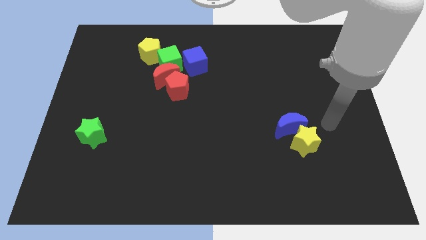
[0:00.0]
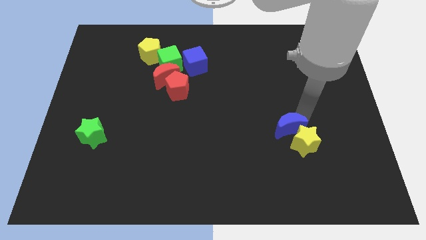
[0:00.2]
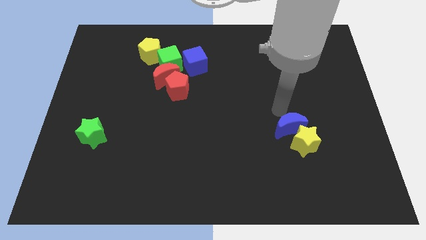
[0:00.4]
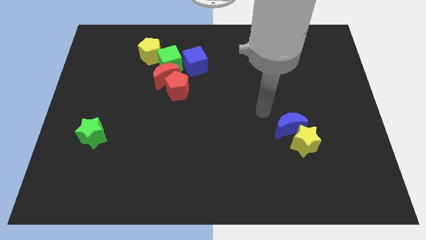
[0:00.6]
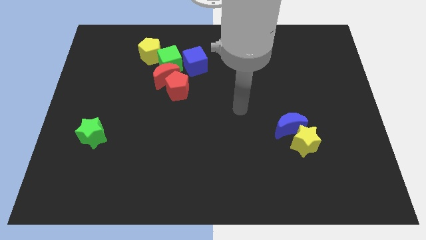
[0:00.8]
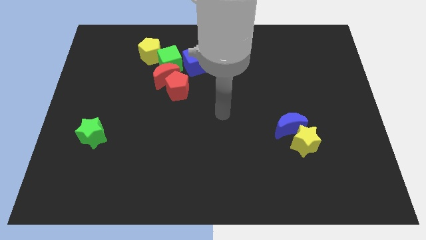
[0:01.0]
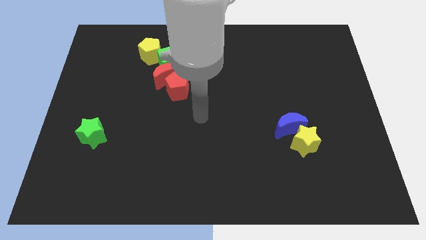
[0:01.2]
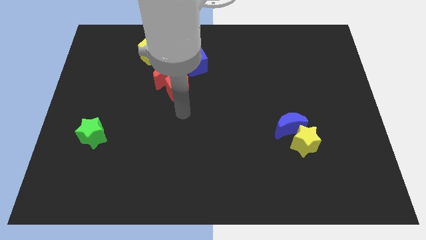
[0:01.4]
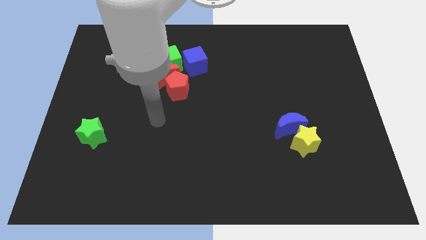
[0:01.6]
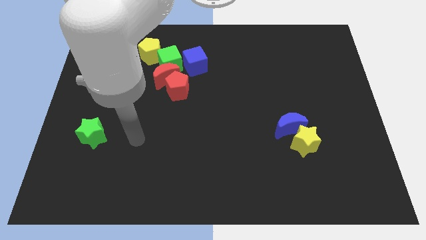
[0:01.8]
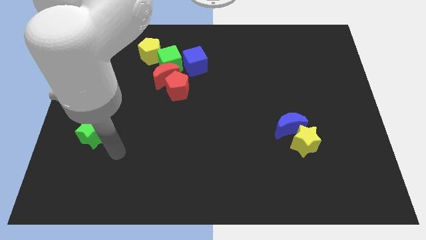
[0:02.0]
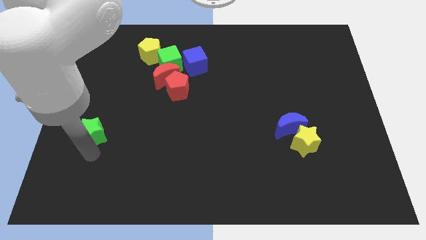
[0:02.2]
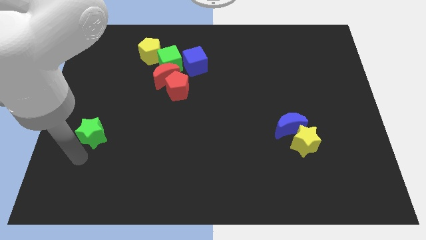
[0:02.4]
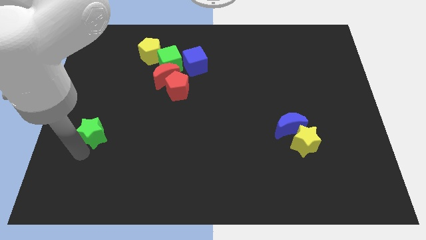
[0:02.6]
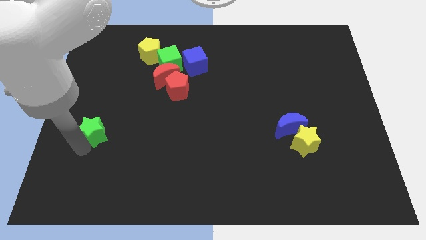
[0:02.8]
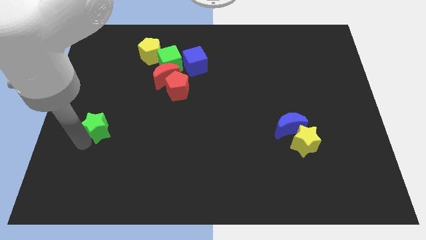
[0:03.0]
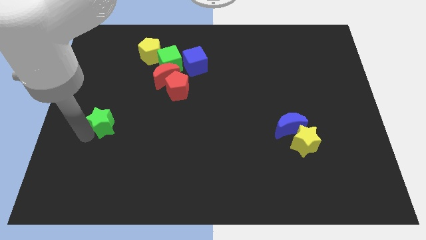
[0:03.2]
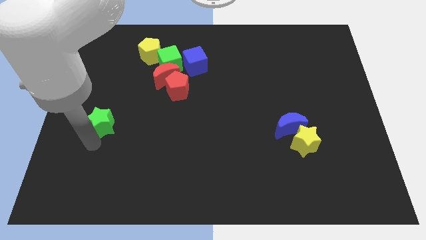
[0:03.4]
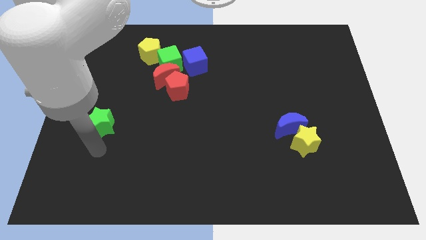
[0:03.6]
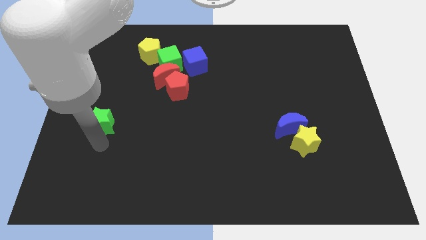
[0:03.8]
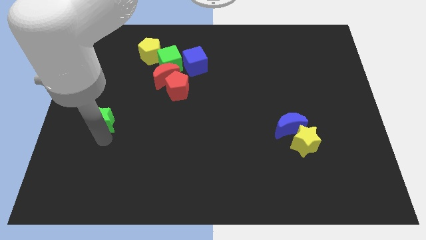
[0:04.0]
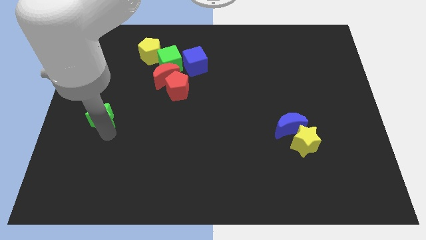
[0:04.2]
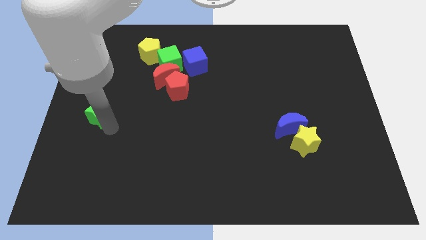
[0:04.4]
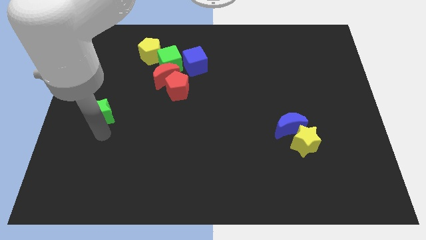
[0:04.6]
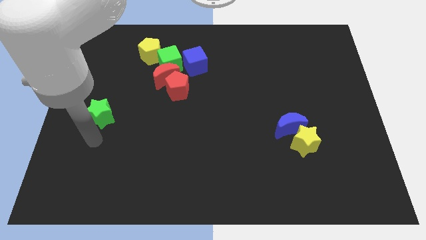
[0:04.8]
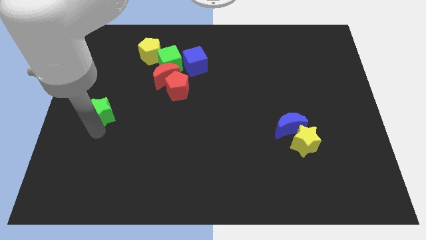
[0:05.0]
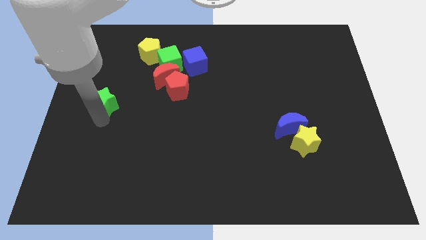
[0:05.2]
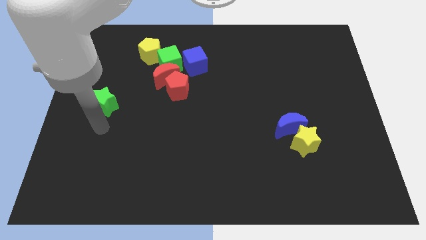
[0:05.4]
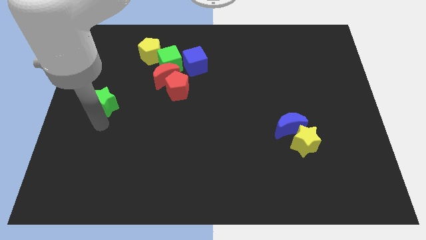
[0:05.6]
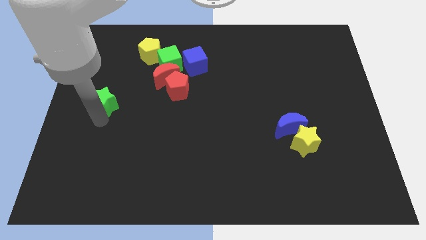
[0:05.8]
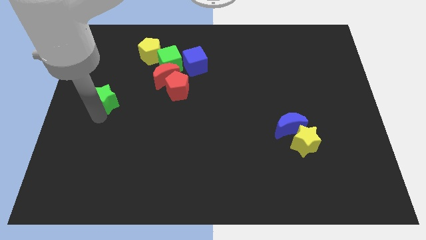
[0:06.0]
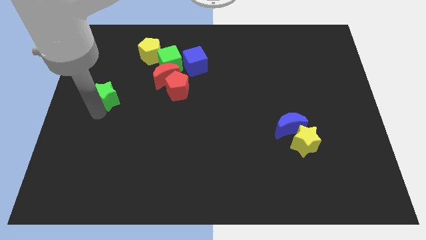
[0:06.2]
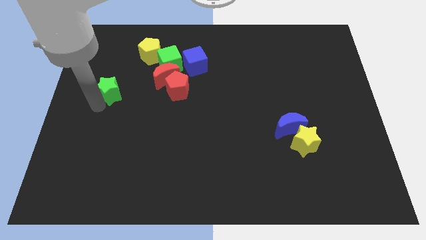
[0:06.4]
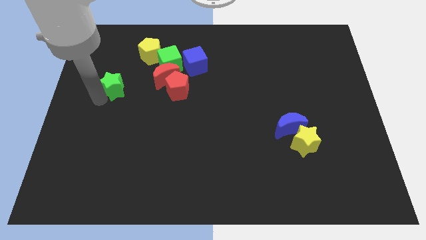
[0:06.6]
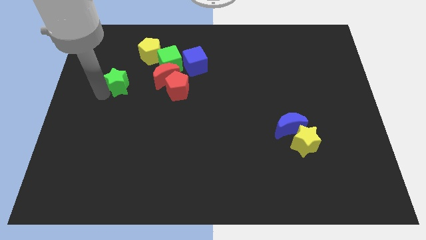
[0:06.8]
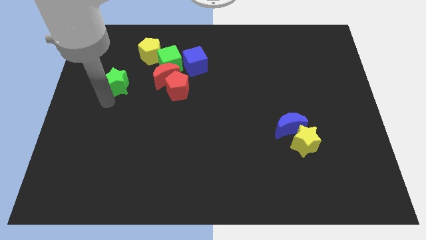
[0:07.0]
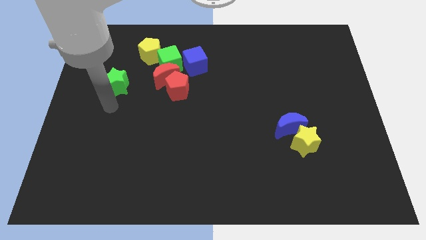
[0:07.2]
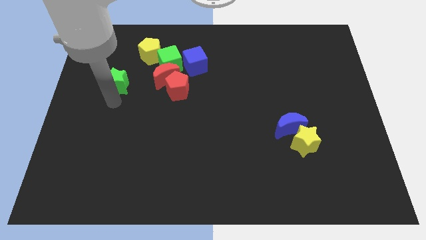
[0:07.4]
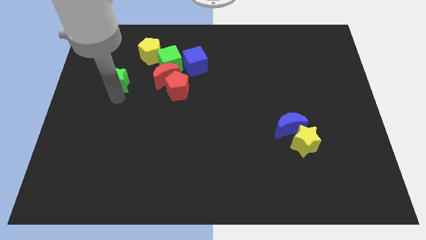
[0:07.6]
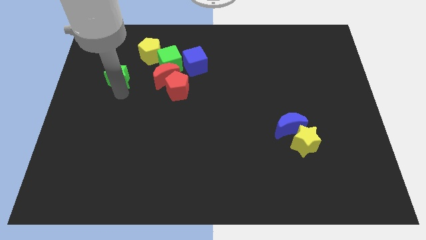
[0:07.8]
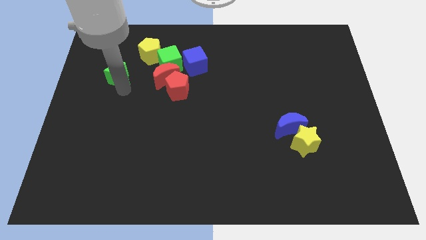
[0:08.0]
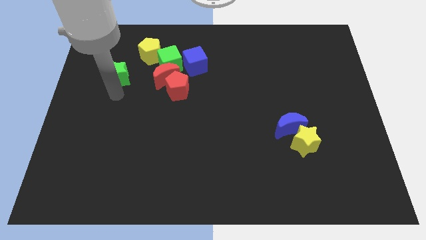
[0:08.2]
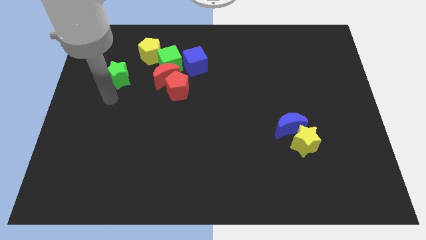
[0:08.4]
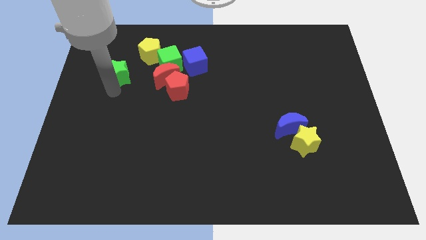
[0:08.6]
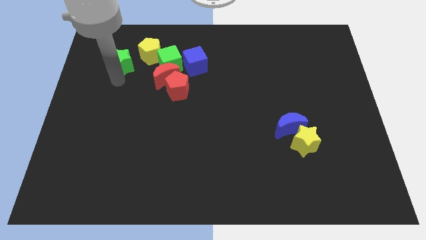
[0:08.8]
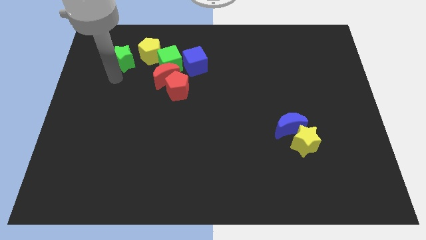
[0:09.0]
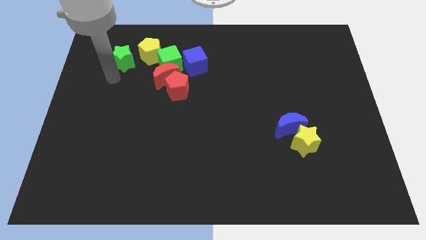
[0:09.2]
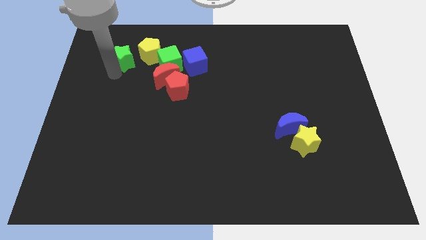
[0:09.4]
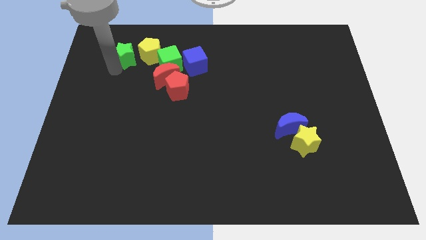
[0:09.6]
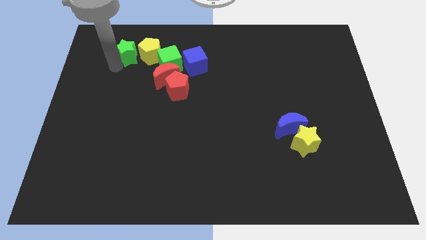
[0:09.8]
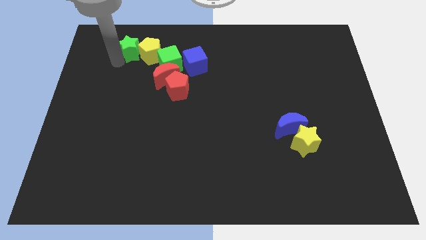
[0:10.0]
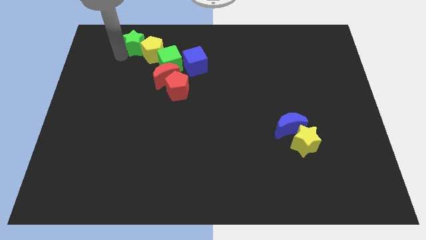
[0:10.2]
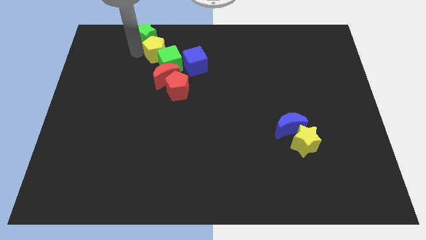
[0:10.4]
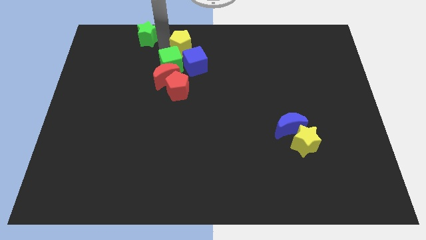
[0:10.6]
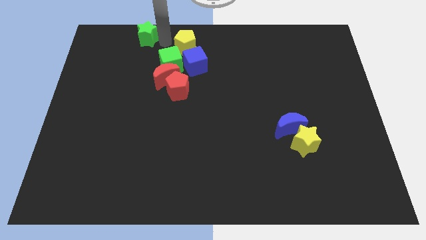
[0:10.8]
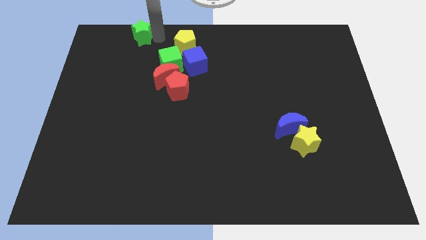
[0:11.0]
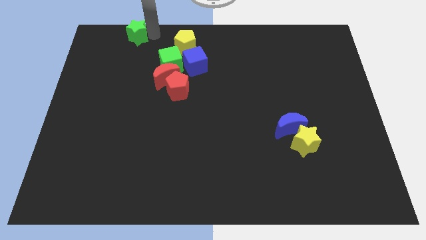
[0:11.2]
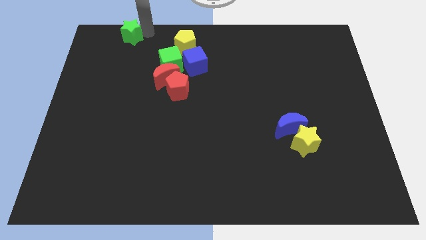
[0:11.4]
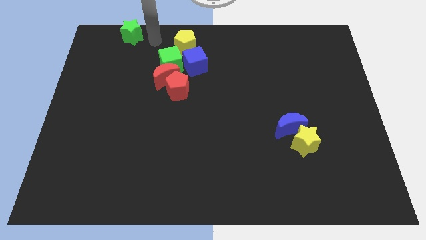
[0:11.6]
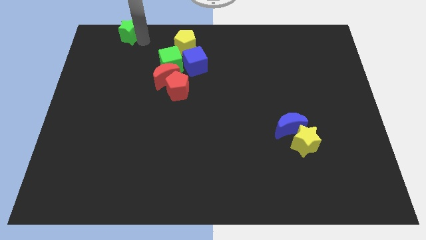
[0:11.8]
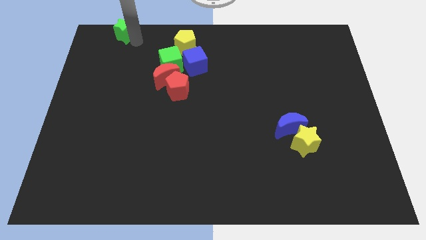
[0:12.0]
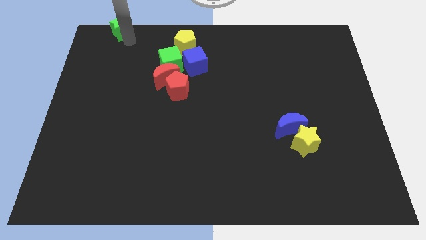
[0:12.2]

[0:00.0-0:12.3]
push the green star to the top left
